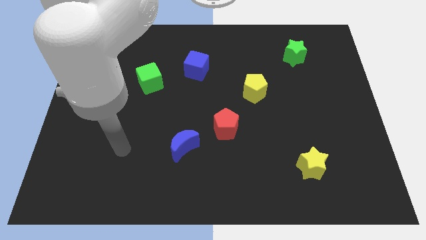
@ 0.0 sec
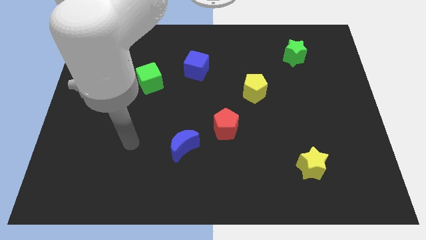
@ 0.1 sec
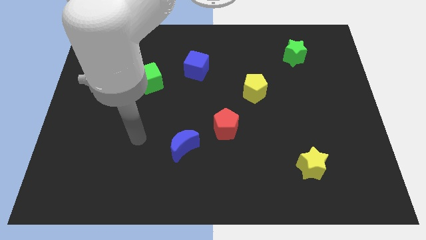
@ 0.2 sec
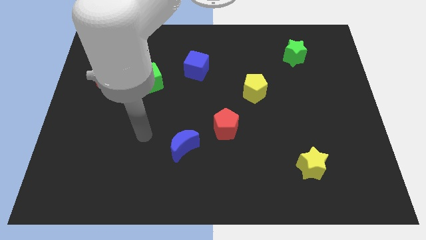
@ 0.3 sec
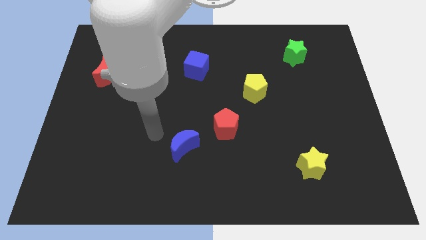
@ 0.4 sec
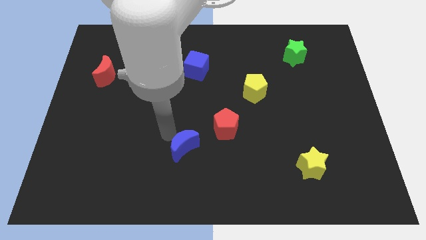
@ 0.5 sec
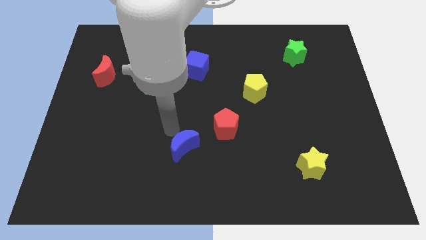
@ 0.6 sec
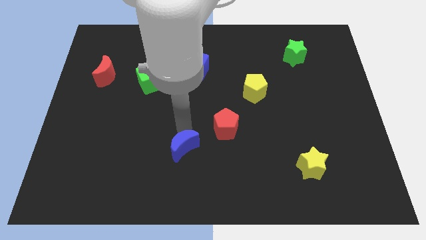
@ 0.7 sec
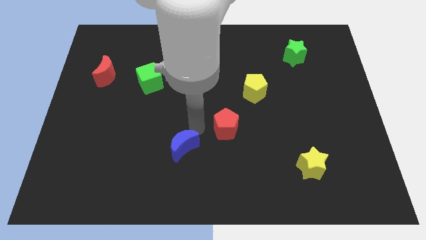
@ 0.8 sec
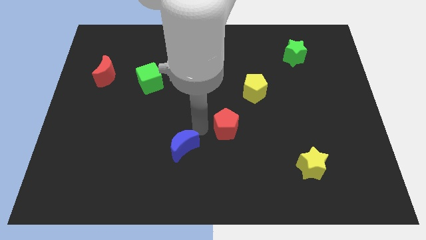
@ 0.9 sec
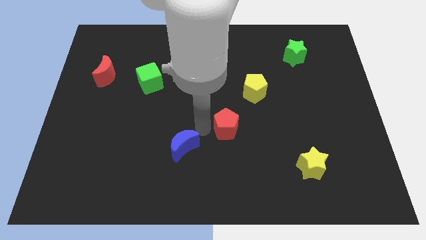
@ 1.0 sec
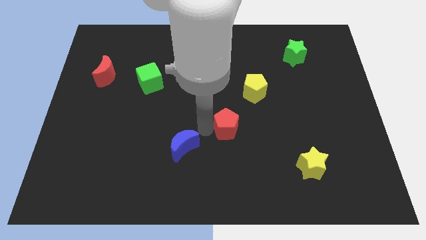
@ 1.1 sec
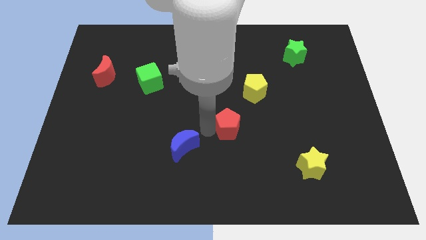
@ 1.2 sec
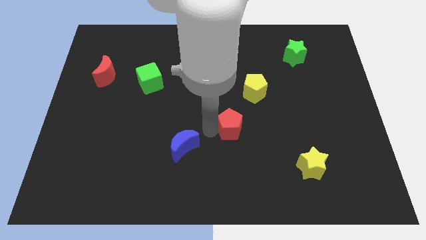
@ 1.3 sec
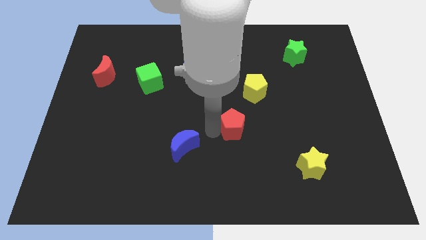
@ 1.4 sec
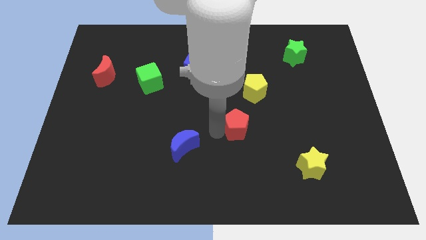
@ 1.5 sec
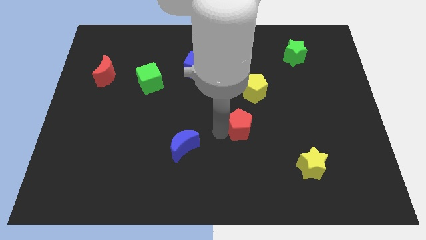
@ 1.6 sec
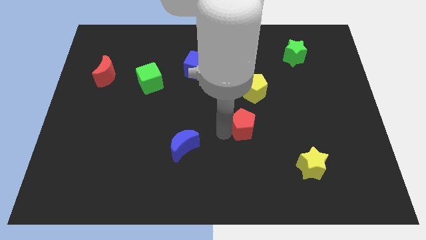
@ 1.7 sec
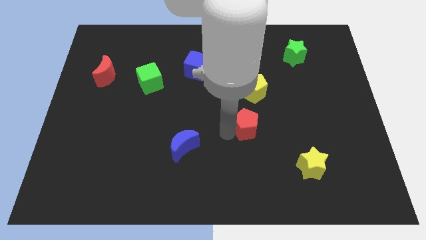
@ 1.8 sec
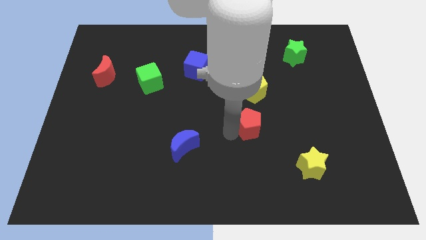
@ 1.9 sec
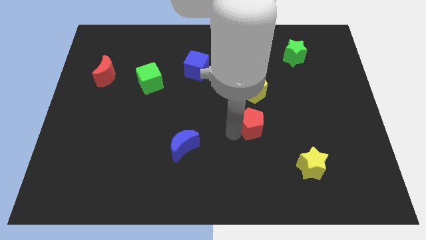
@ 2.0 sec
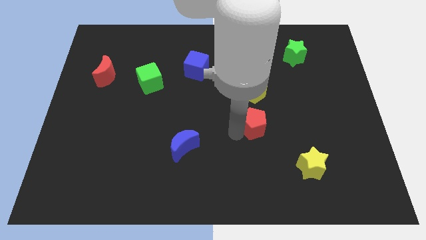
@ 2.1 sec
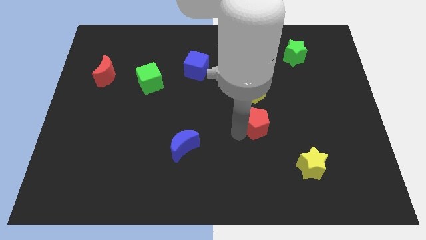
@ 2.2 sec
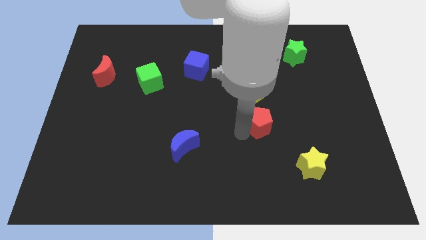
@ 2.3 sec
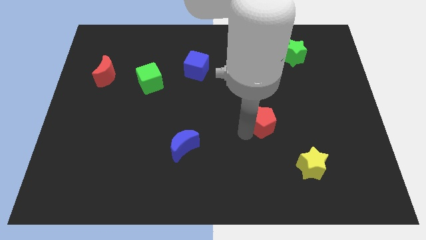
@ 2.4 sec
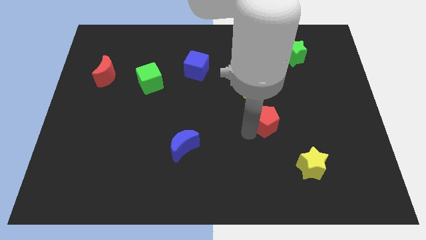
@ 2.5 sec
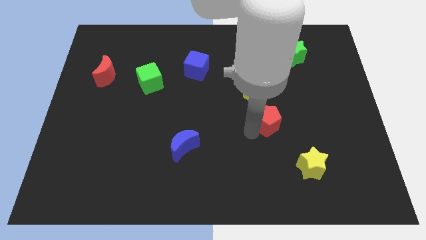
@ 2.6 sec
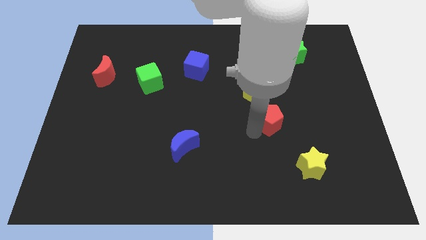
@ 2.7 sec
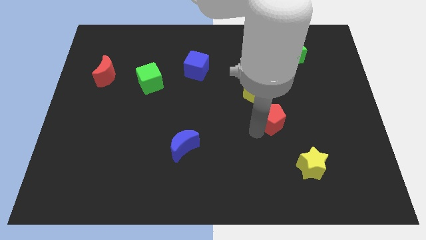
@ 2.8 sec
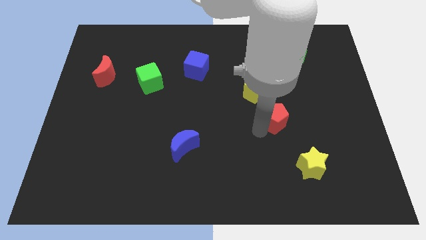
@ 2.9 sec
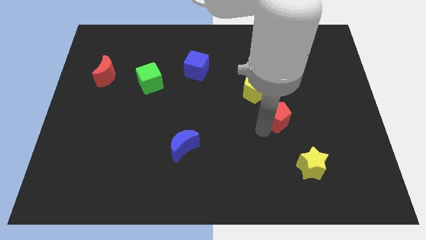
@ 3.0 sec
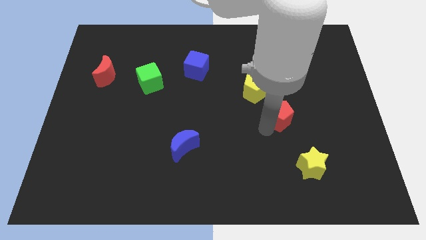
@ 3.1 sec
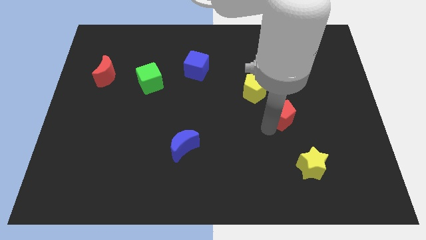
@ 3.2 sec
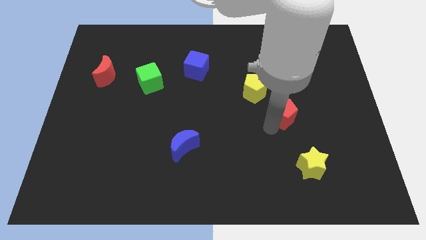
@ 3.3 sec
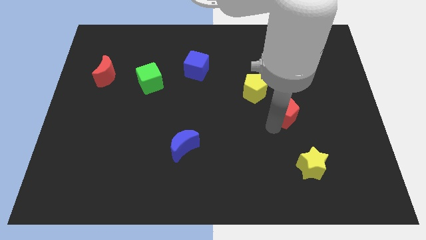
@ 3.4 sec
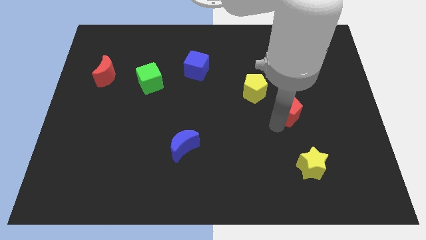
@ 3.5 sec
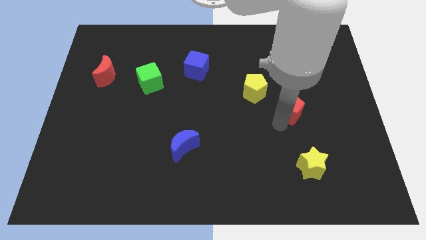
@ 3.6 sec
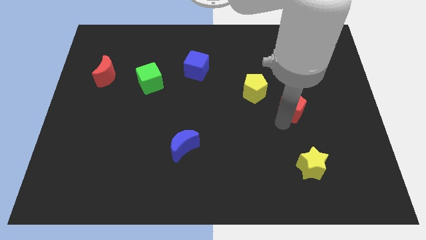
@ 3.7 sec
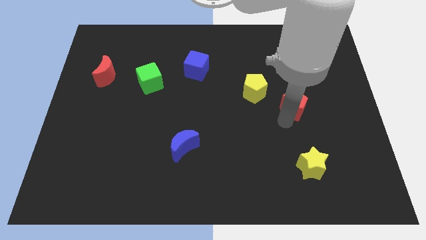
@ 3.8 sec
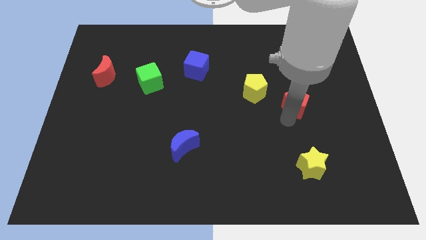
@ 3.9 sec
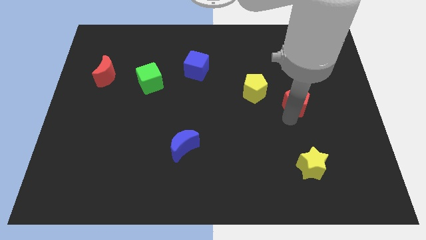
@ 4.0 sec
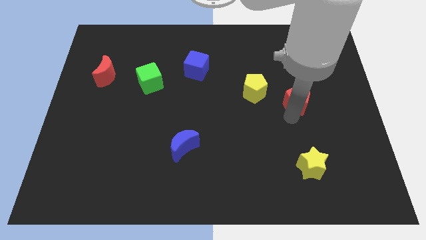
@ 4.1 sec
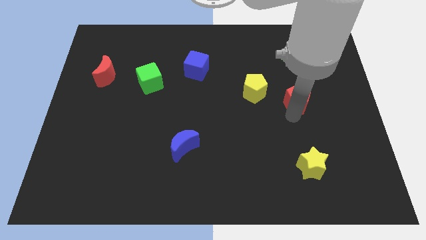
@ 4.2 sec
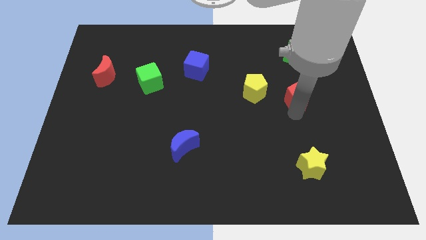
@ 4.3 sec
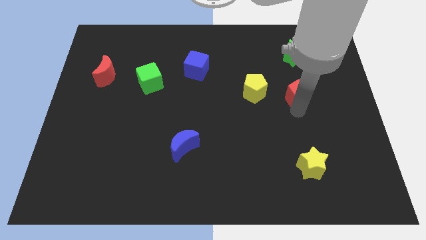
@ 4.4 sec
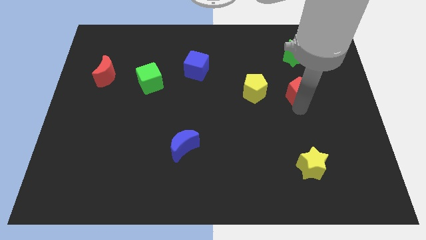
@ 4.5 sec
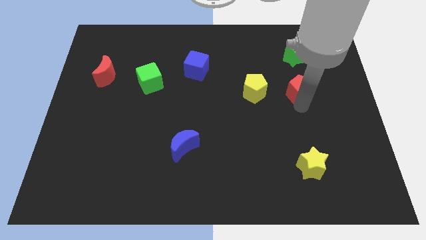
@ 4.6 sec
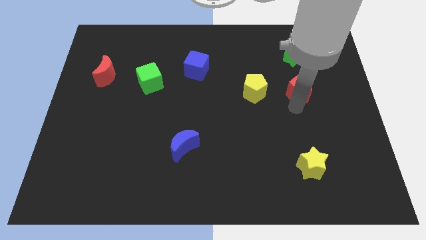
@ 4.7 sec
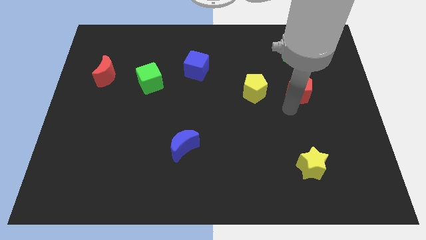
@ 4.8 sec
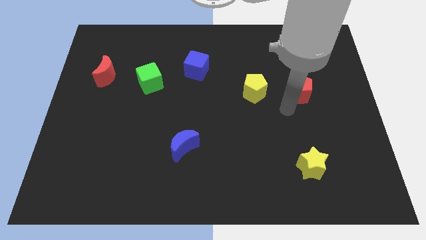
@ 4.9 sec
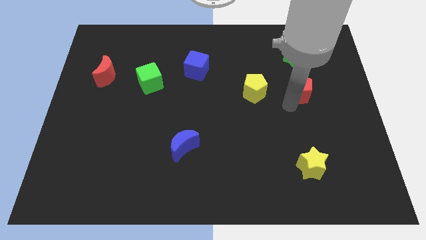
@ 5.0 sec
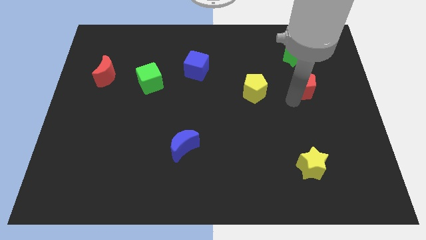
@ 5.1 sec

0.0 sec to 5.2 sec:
push the red pentagon diagonally up and to the right

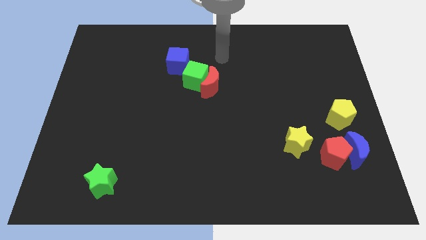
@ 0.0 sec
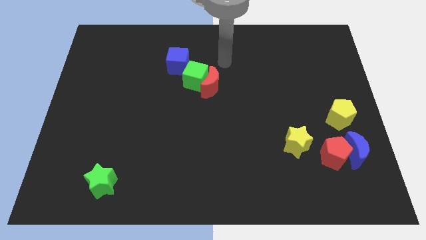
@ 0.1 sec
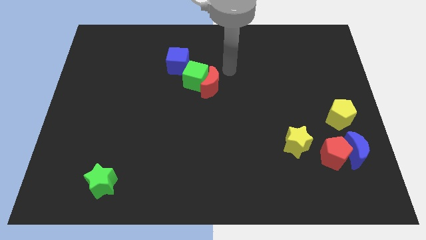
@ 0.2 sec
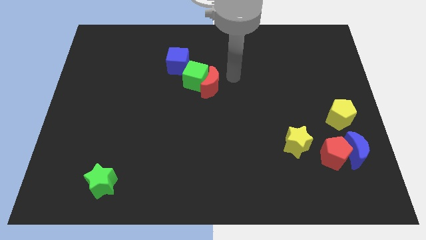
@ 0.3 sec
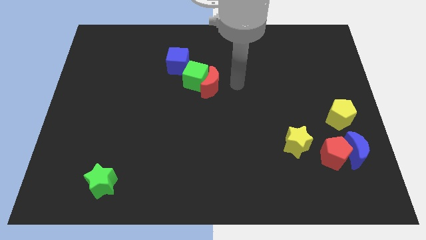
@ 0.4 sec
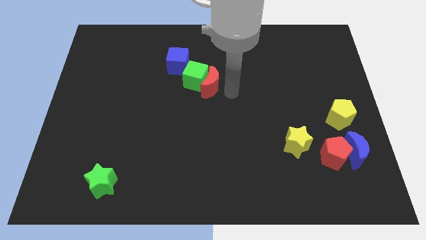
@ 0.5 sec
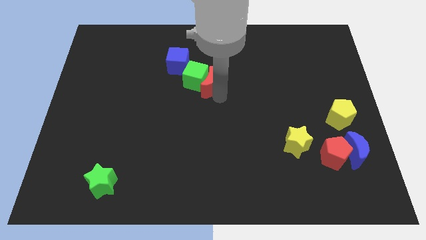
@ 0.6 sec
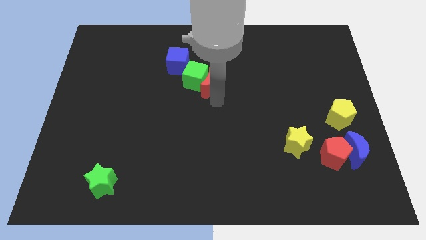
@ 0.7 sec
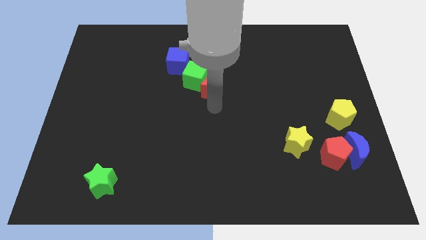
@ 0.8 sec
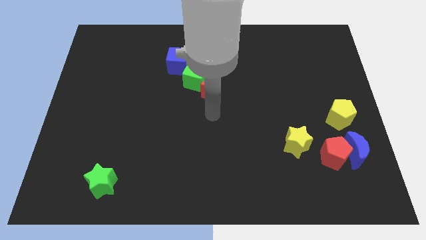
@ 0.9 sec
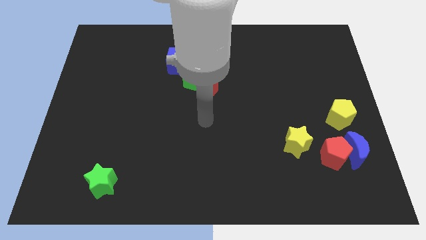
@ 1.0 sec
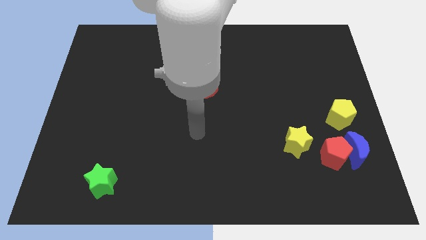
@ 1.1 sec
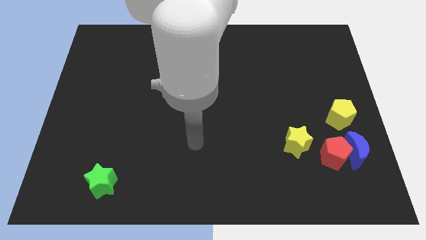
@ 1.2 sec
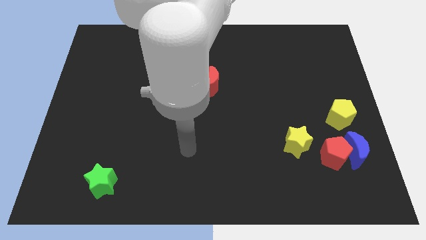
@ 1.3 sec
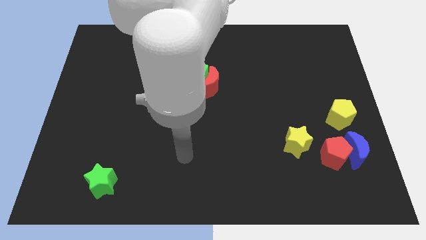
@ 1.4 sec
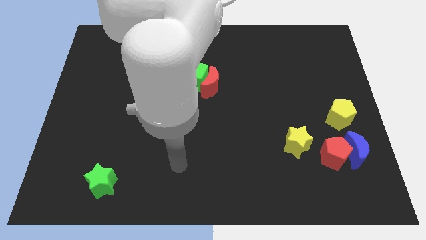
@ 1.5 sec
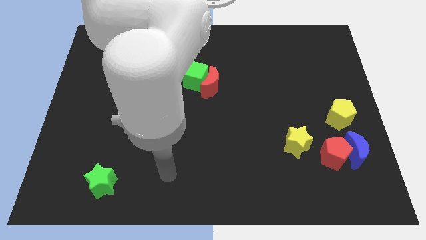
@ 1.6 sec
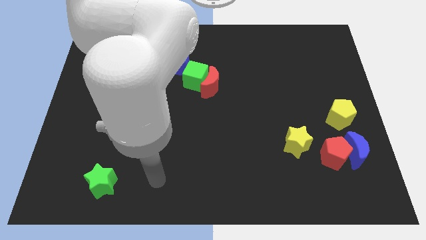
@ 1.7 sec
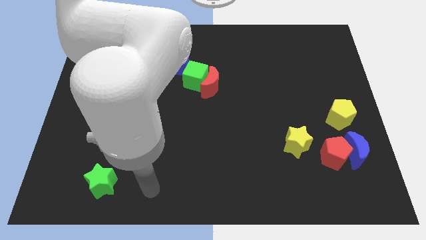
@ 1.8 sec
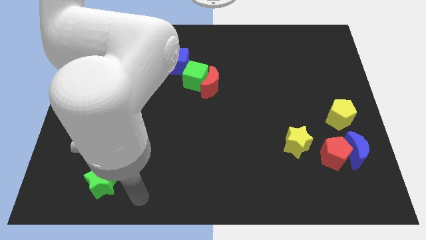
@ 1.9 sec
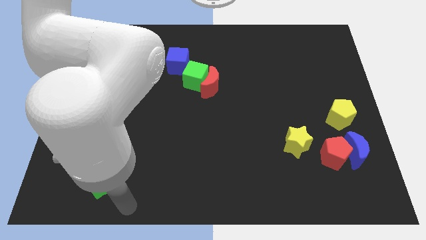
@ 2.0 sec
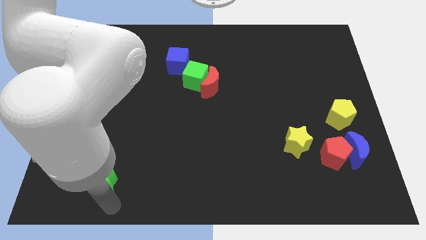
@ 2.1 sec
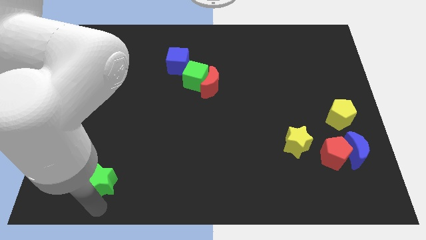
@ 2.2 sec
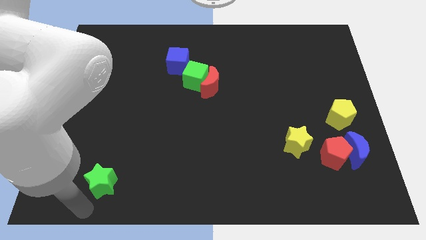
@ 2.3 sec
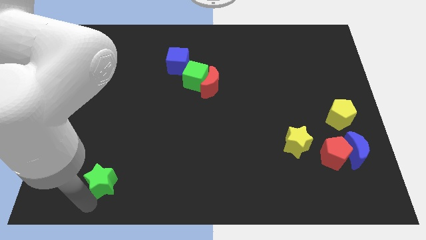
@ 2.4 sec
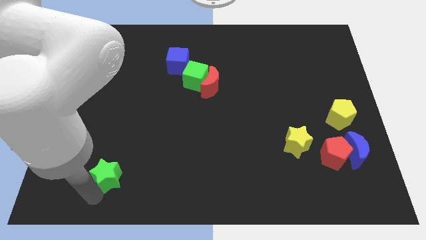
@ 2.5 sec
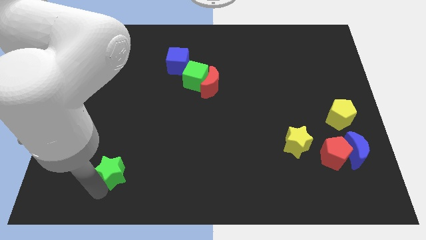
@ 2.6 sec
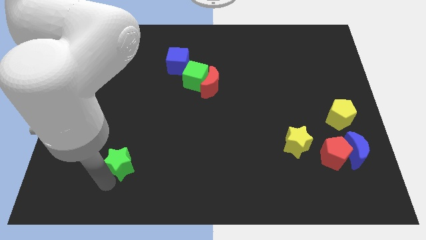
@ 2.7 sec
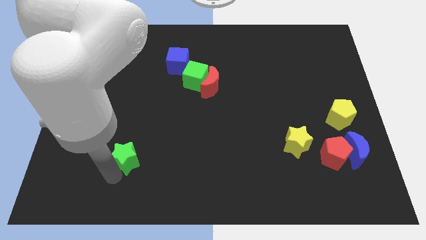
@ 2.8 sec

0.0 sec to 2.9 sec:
slightly push the green star upwards and to the right
